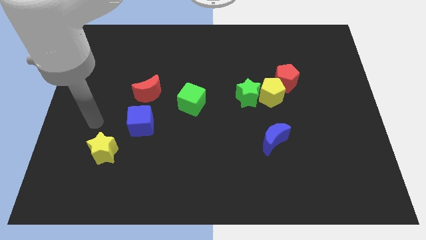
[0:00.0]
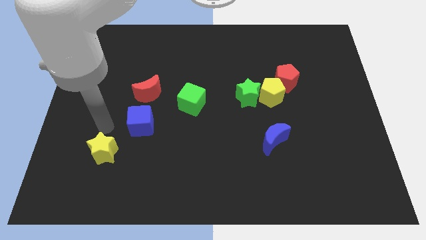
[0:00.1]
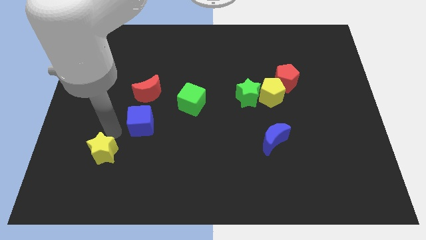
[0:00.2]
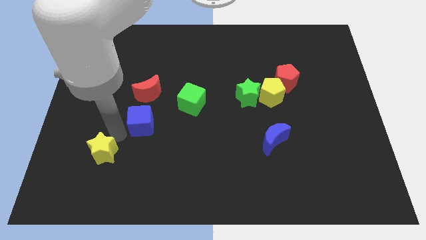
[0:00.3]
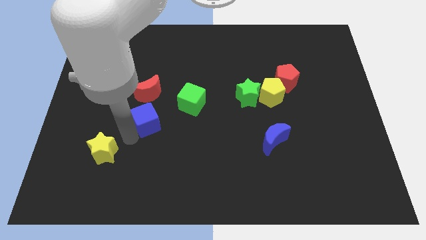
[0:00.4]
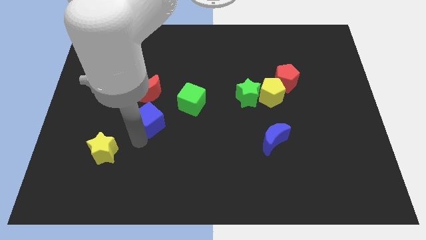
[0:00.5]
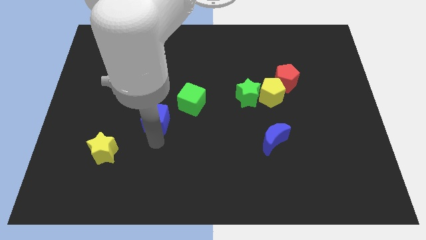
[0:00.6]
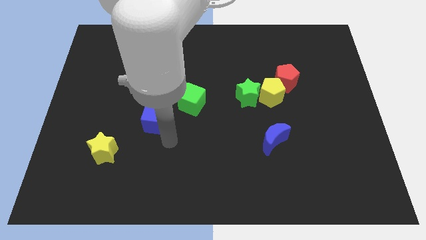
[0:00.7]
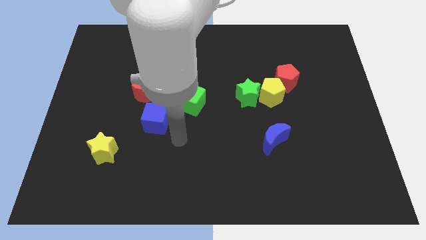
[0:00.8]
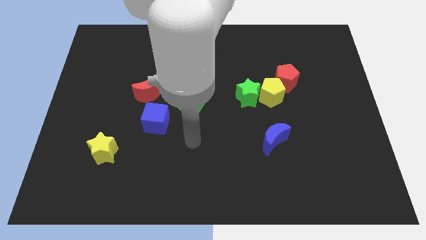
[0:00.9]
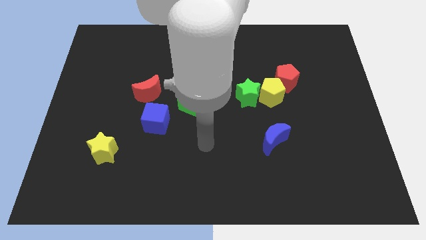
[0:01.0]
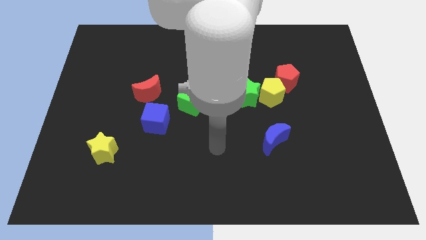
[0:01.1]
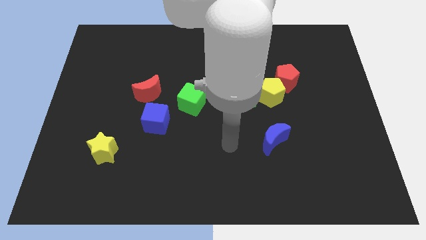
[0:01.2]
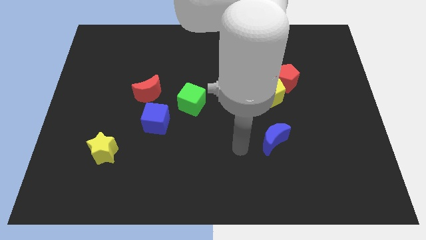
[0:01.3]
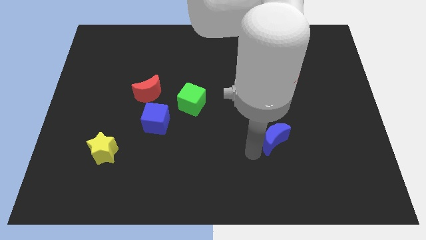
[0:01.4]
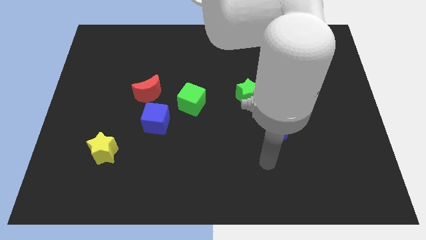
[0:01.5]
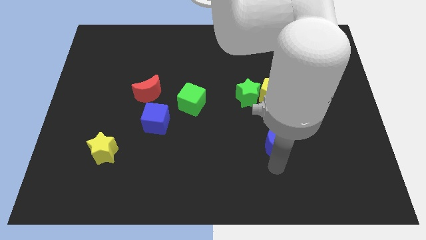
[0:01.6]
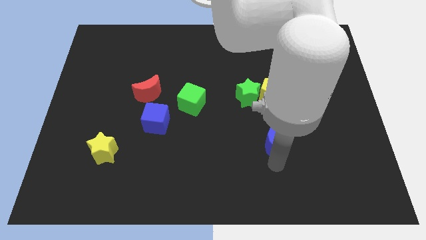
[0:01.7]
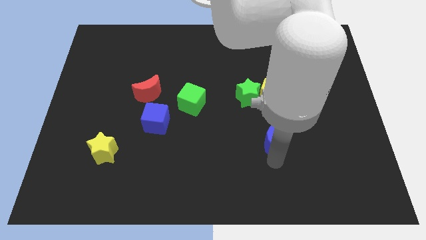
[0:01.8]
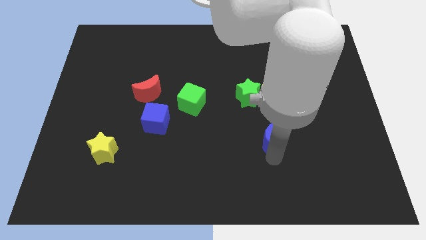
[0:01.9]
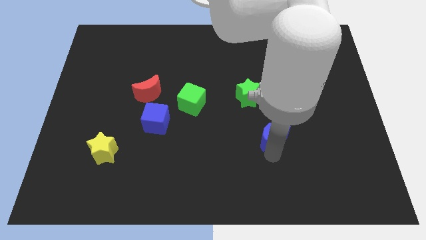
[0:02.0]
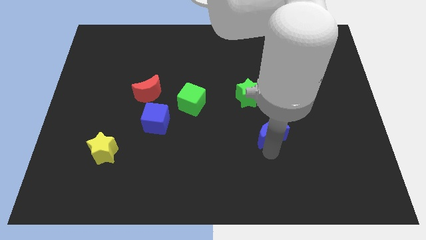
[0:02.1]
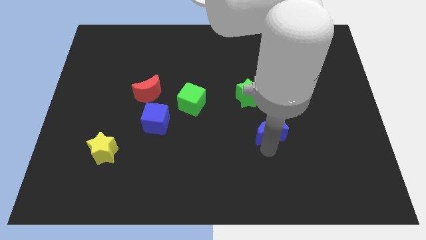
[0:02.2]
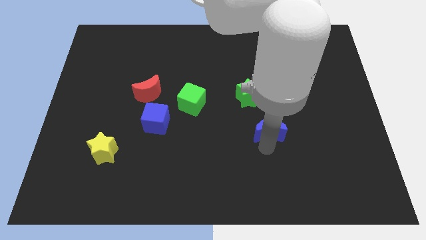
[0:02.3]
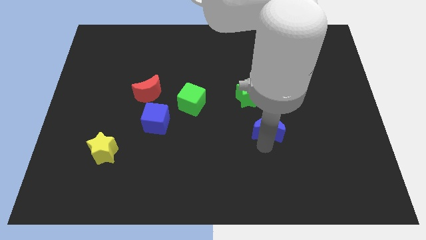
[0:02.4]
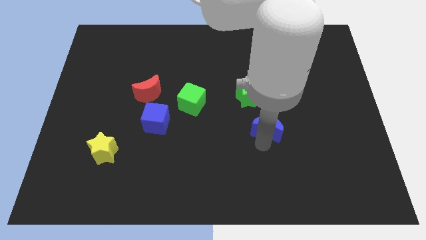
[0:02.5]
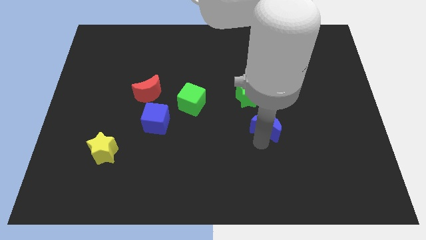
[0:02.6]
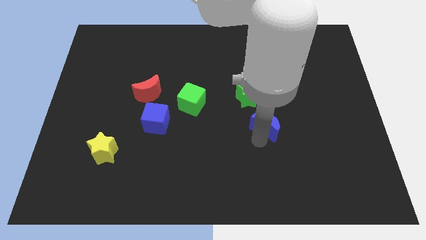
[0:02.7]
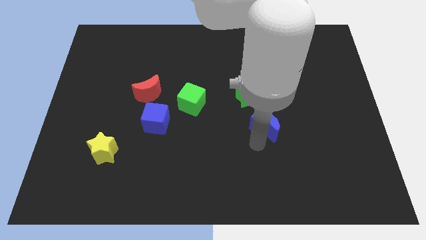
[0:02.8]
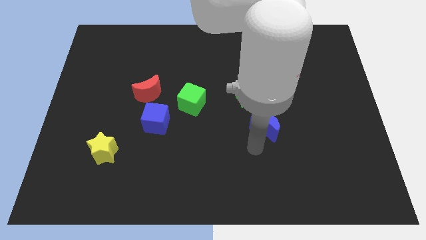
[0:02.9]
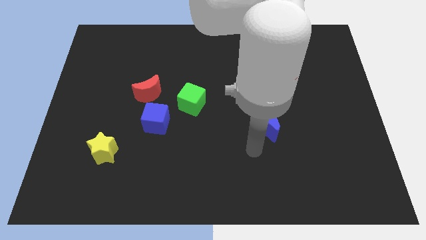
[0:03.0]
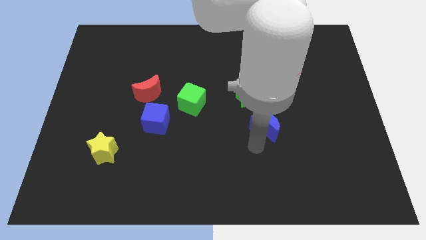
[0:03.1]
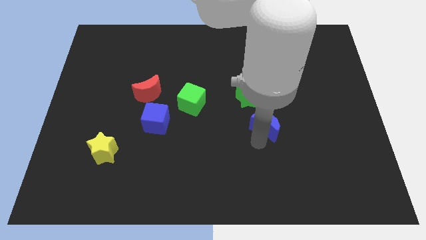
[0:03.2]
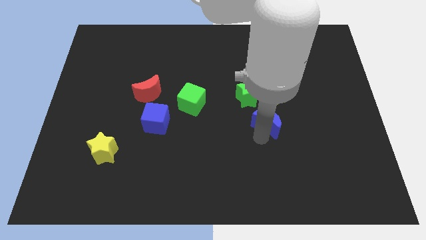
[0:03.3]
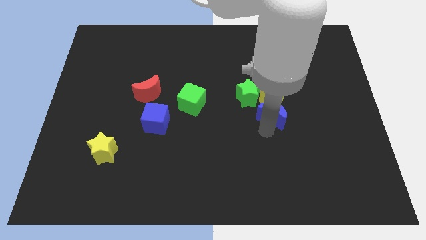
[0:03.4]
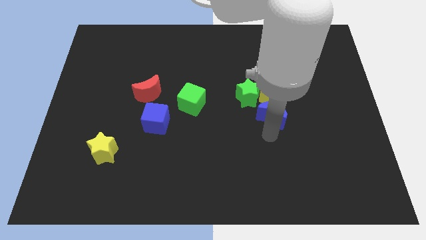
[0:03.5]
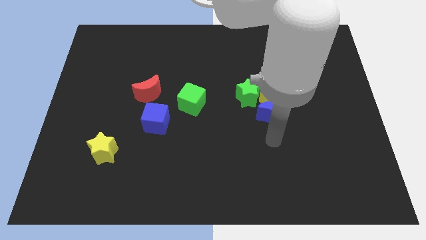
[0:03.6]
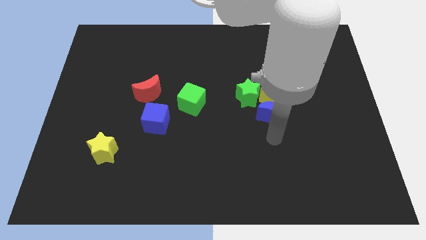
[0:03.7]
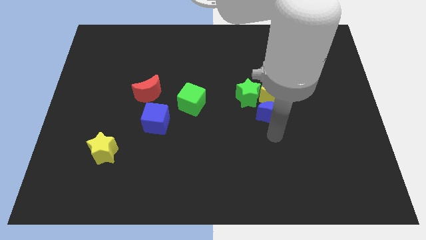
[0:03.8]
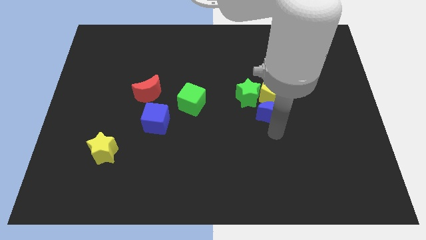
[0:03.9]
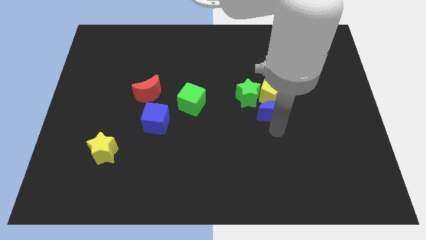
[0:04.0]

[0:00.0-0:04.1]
slide the blue moon next to the yellow pentagon

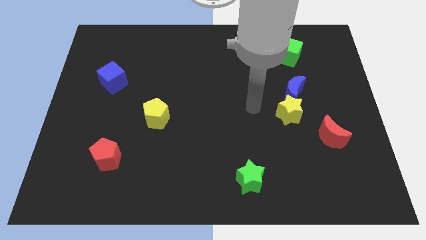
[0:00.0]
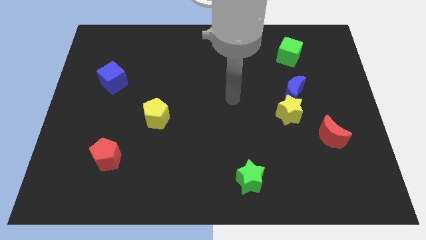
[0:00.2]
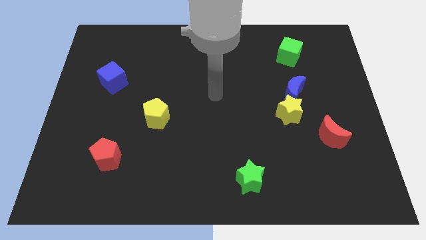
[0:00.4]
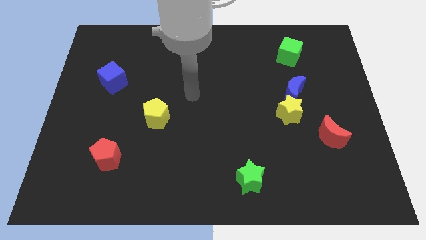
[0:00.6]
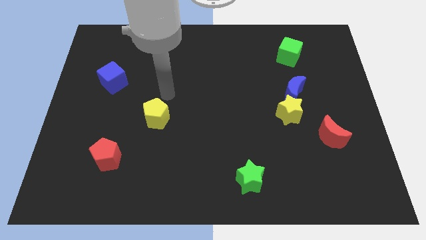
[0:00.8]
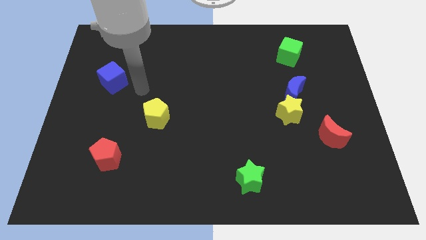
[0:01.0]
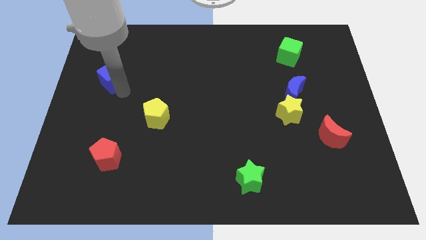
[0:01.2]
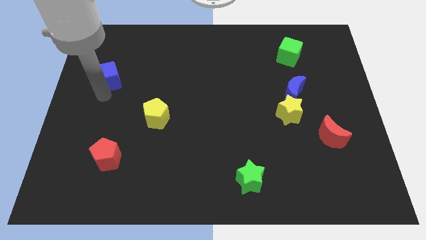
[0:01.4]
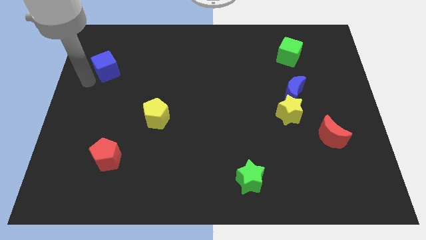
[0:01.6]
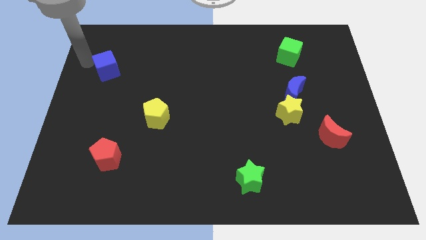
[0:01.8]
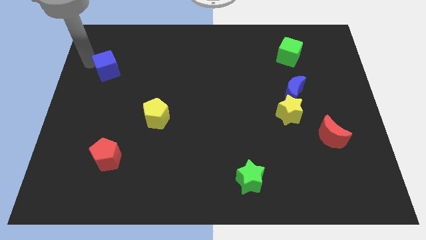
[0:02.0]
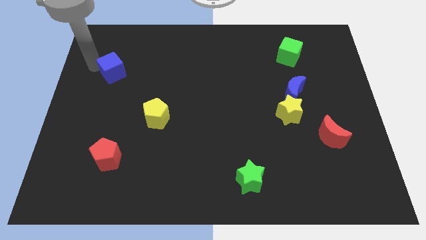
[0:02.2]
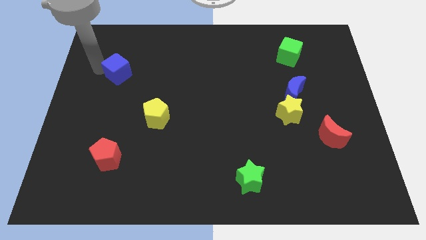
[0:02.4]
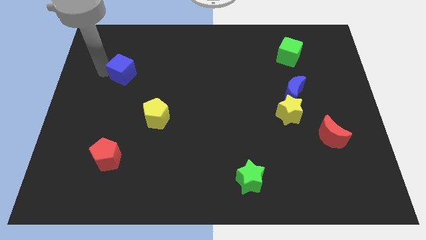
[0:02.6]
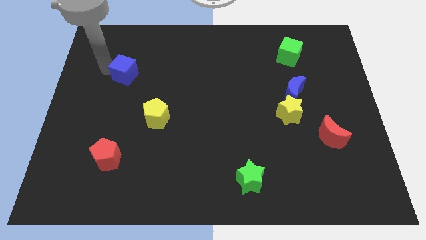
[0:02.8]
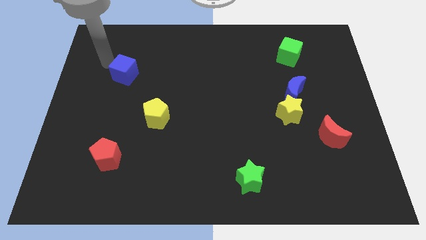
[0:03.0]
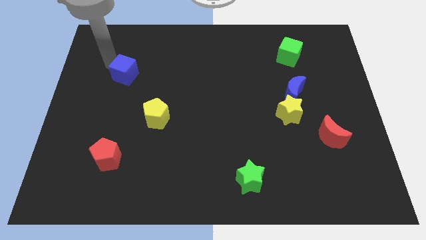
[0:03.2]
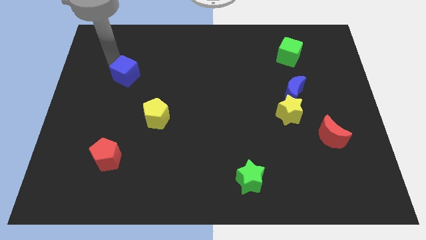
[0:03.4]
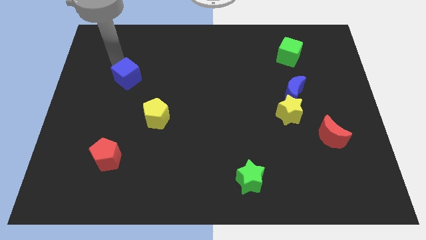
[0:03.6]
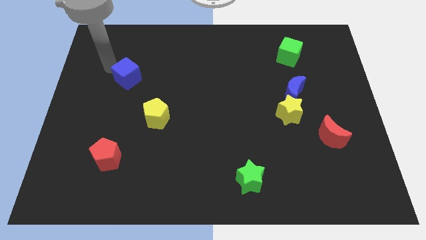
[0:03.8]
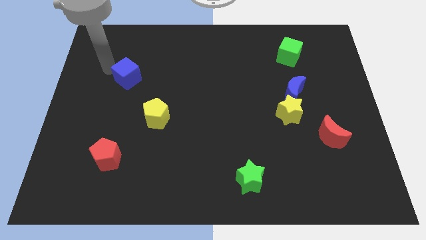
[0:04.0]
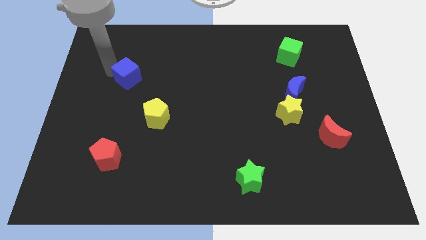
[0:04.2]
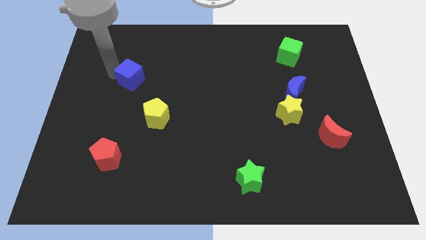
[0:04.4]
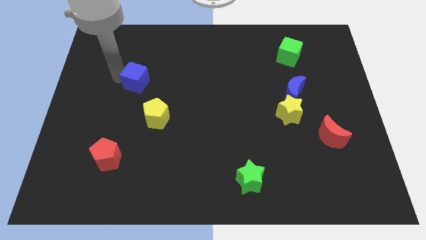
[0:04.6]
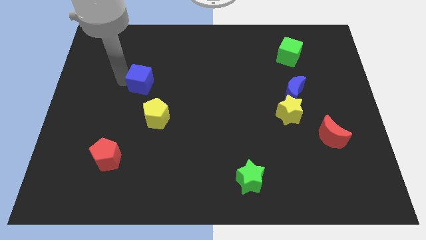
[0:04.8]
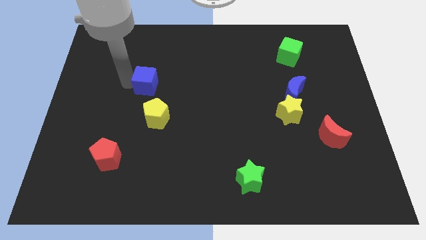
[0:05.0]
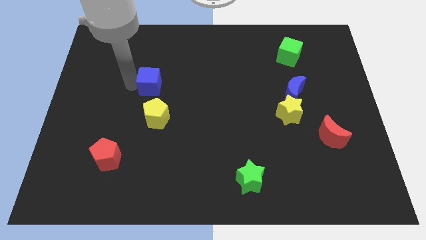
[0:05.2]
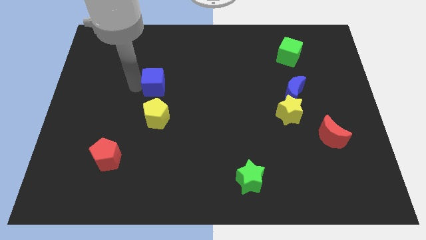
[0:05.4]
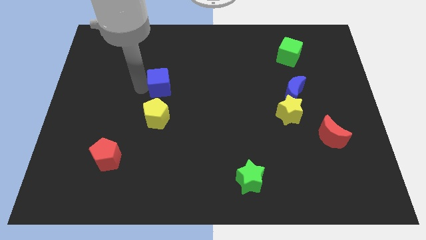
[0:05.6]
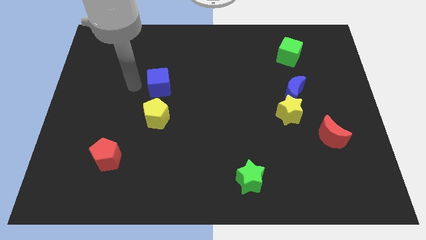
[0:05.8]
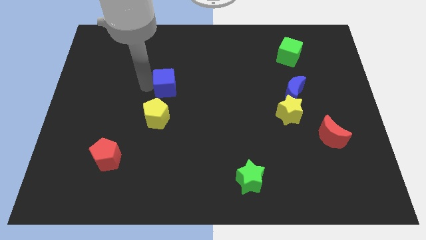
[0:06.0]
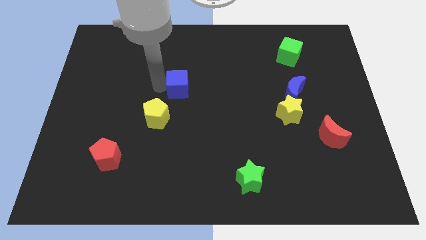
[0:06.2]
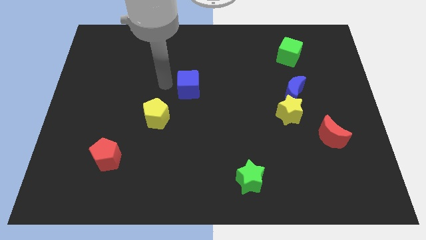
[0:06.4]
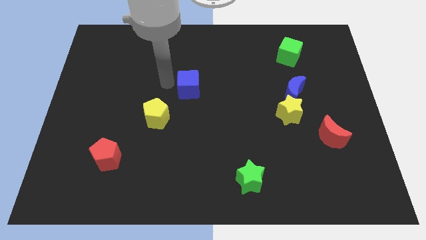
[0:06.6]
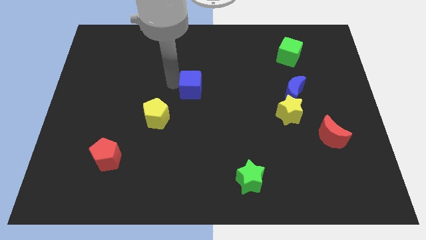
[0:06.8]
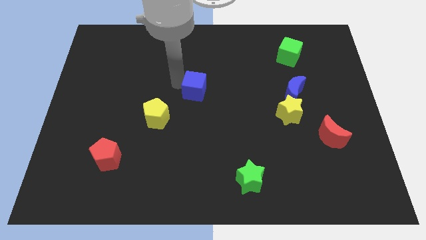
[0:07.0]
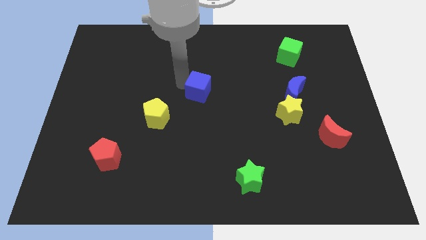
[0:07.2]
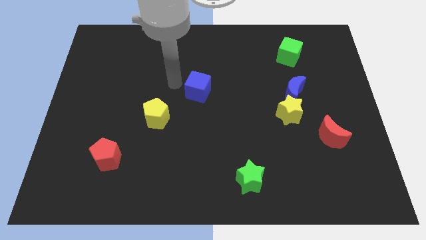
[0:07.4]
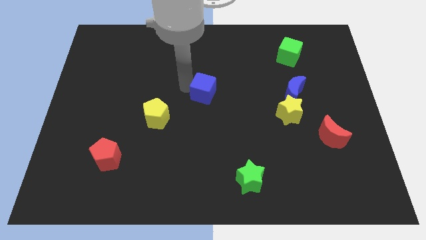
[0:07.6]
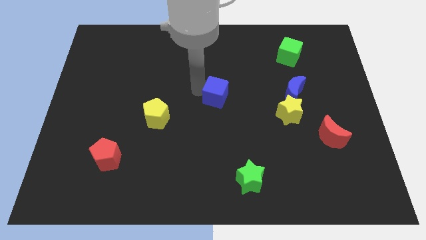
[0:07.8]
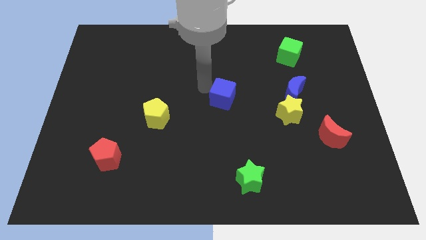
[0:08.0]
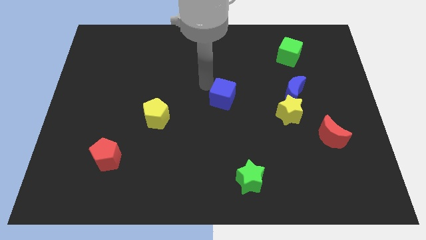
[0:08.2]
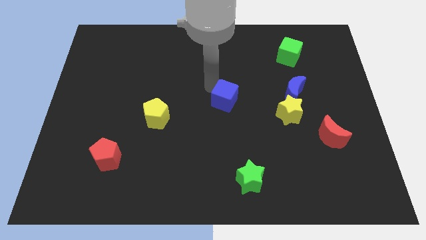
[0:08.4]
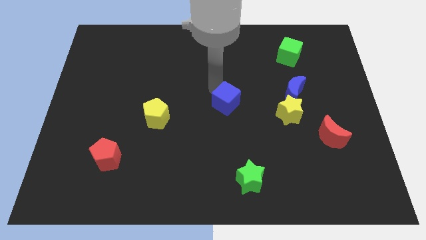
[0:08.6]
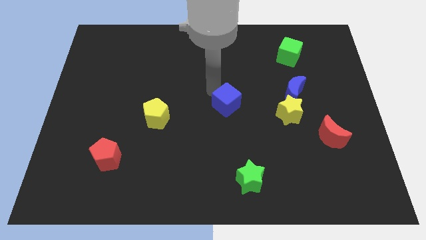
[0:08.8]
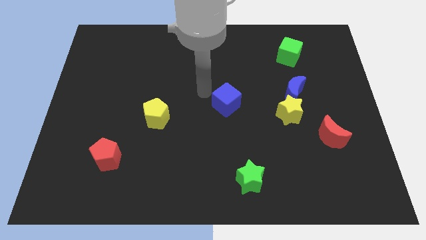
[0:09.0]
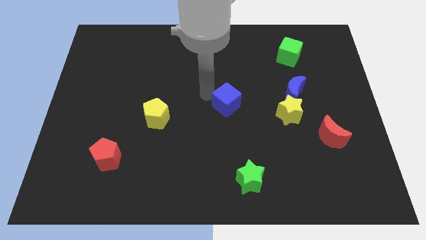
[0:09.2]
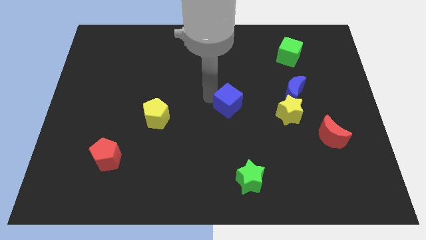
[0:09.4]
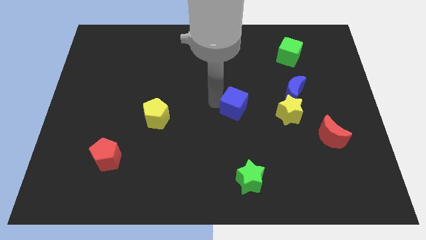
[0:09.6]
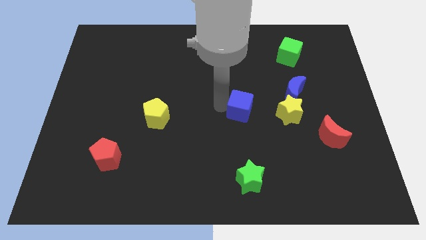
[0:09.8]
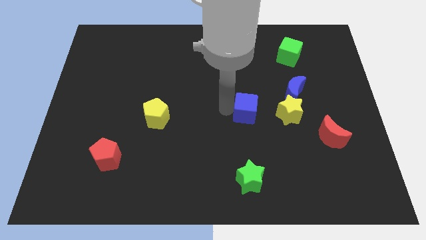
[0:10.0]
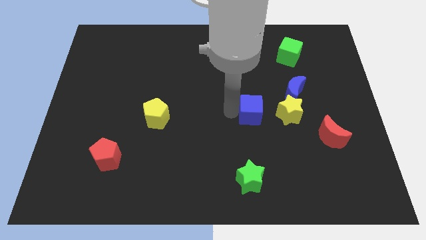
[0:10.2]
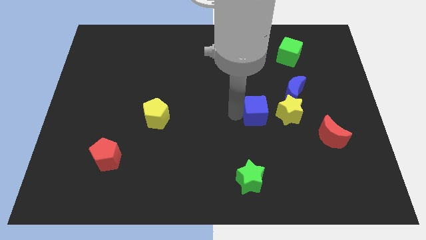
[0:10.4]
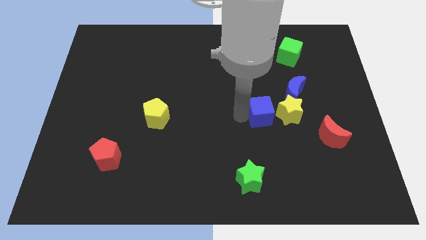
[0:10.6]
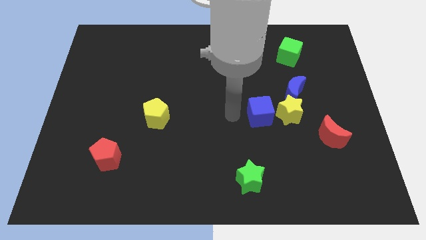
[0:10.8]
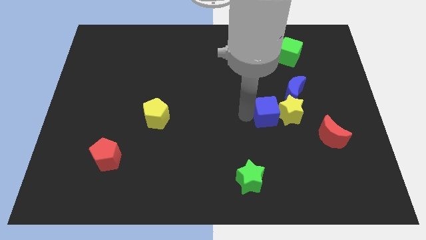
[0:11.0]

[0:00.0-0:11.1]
move the blue cube next to the yellow star
